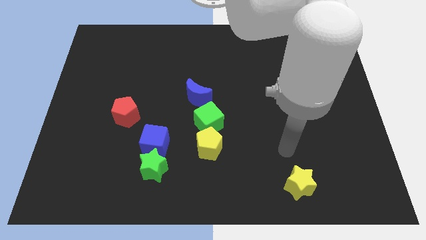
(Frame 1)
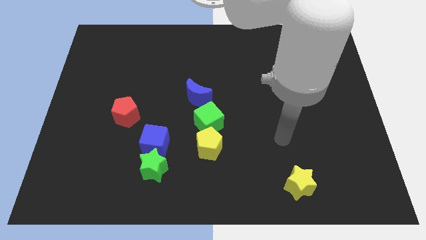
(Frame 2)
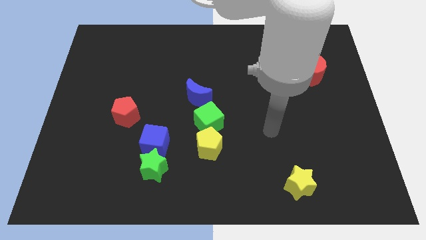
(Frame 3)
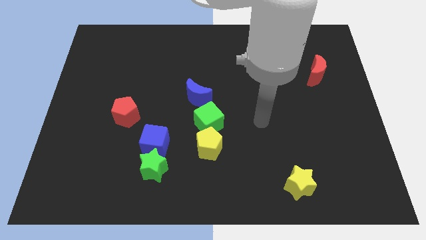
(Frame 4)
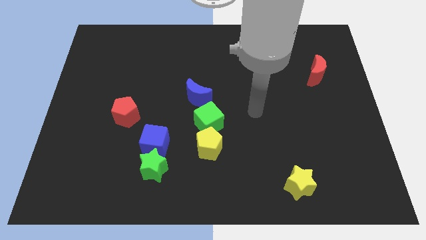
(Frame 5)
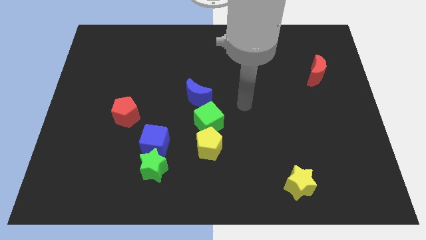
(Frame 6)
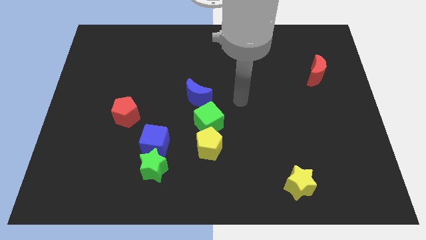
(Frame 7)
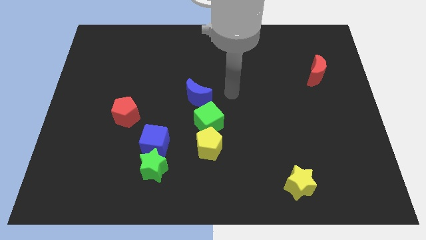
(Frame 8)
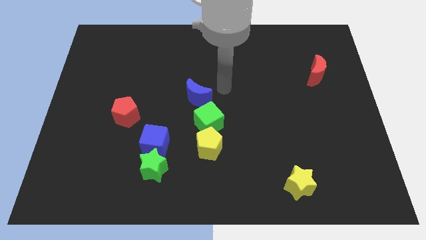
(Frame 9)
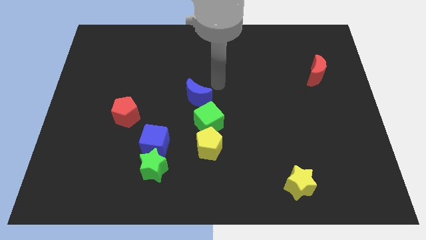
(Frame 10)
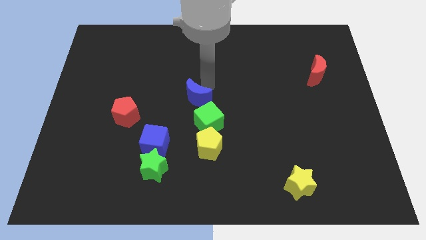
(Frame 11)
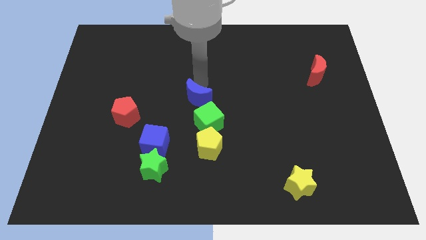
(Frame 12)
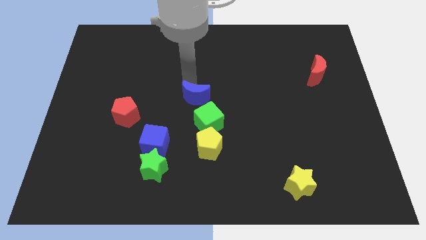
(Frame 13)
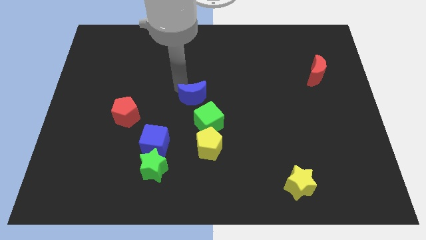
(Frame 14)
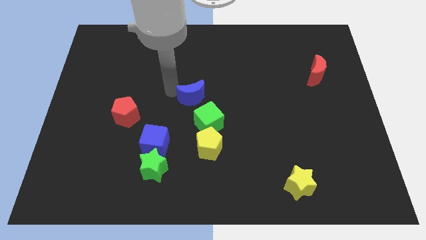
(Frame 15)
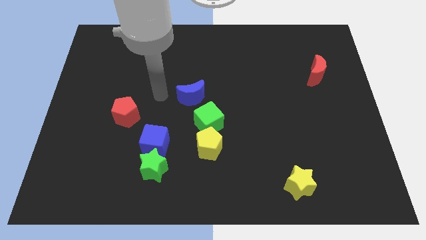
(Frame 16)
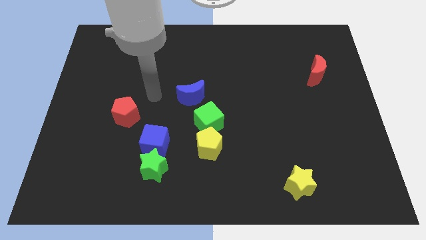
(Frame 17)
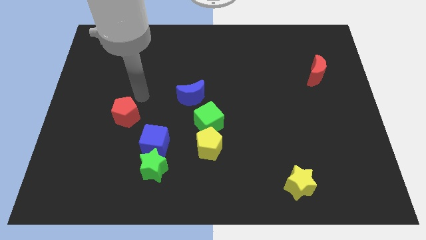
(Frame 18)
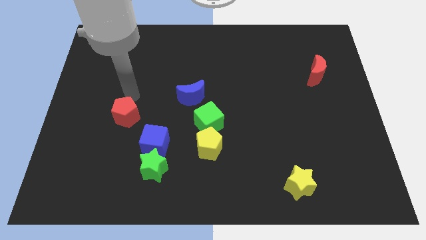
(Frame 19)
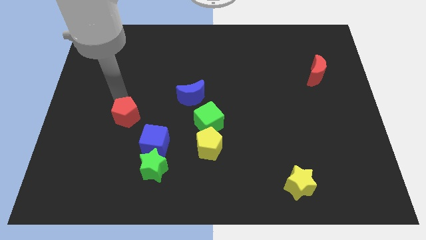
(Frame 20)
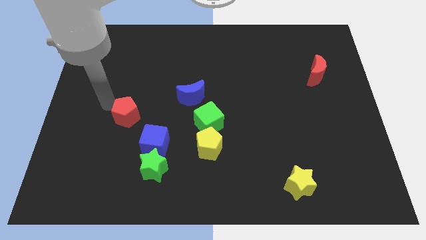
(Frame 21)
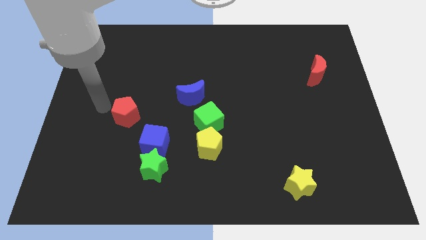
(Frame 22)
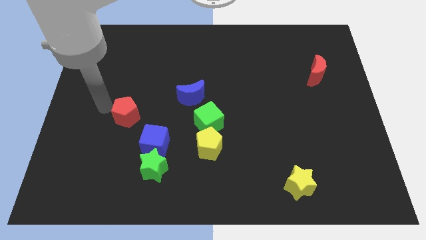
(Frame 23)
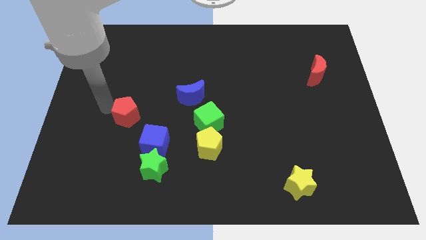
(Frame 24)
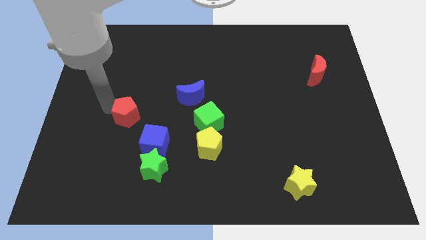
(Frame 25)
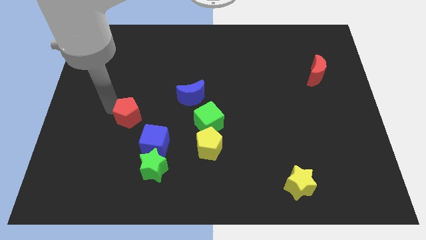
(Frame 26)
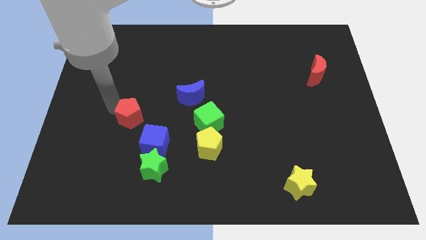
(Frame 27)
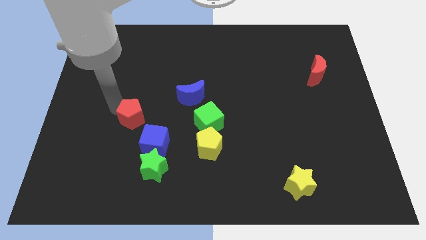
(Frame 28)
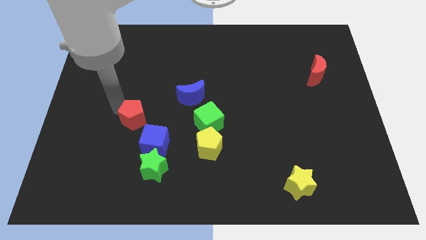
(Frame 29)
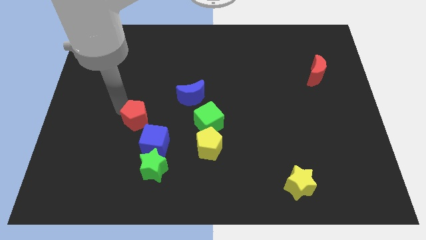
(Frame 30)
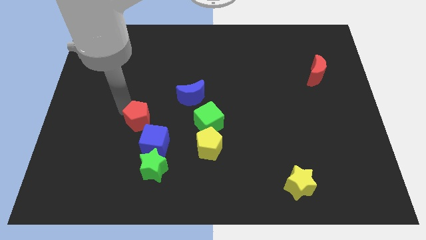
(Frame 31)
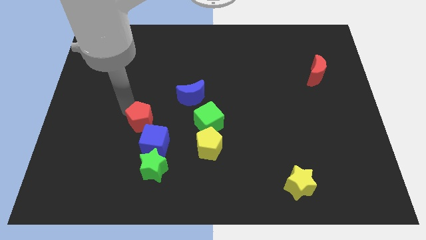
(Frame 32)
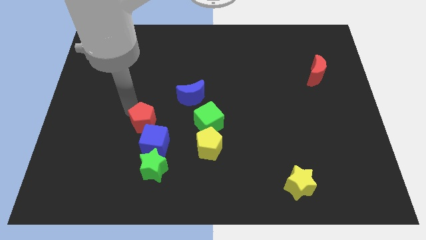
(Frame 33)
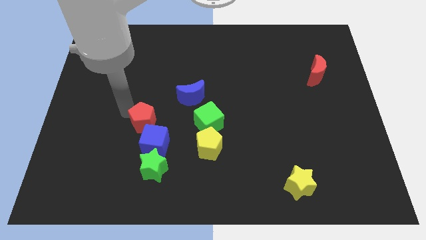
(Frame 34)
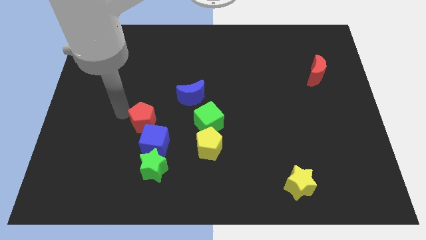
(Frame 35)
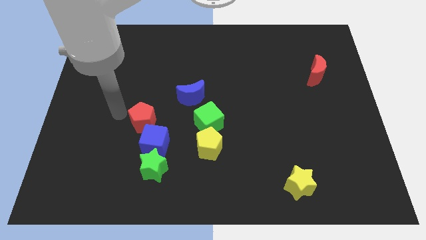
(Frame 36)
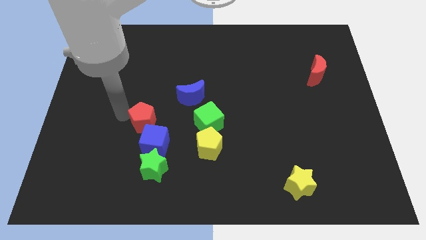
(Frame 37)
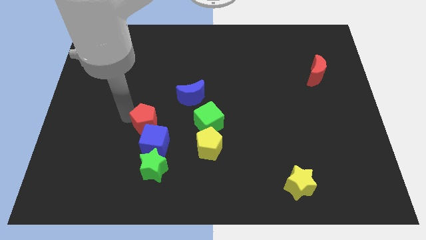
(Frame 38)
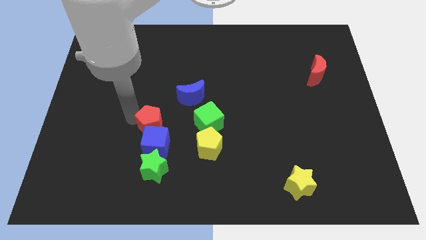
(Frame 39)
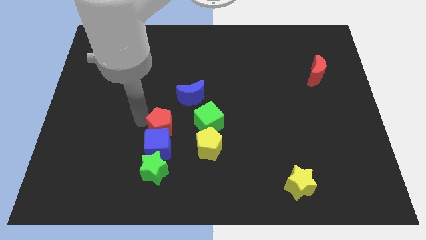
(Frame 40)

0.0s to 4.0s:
slightly slide the red pentagon downwards and to the right diagonally

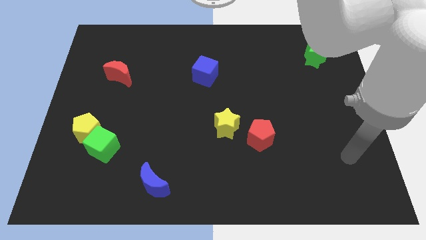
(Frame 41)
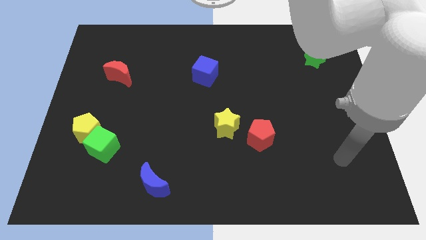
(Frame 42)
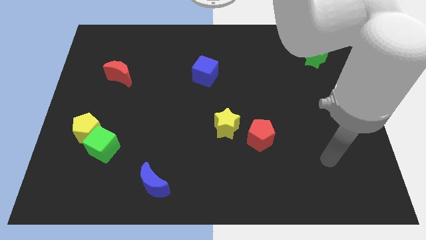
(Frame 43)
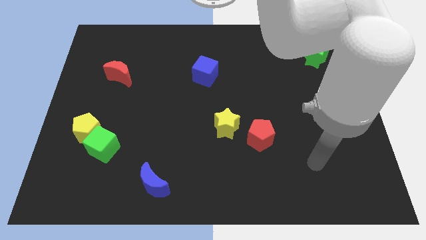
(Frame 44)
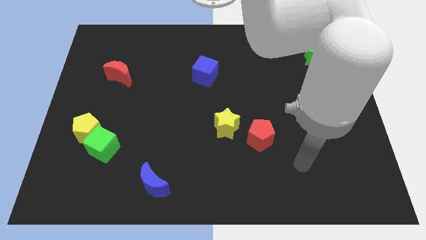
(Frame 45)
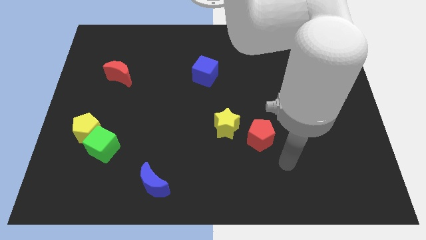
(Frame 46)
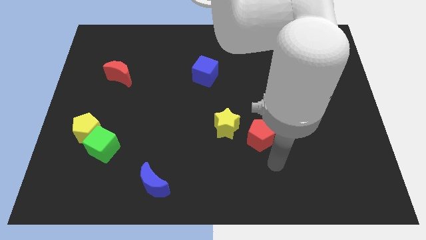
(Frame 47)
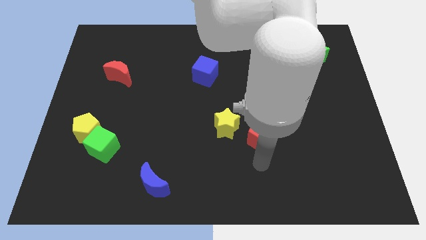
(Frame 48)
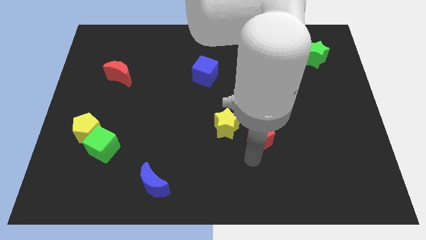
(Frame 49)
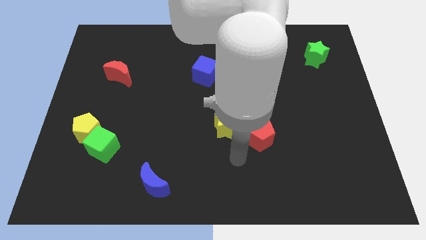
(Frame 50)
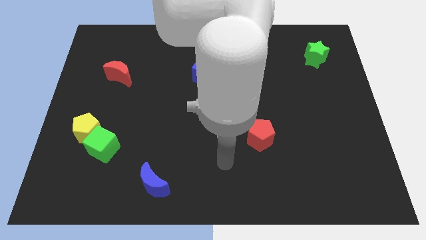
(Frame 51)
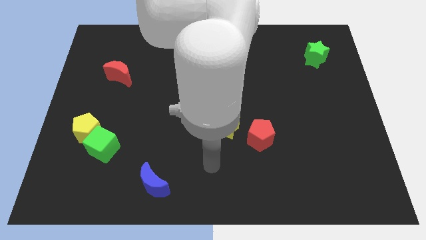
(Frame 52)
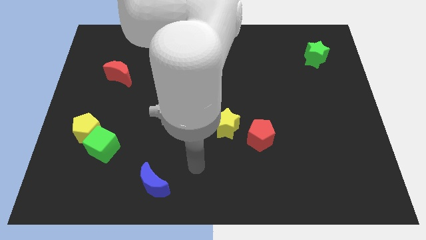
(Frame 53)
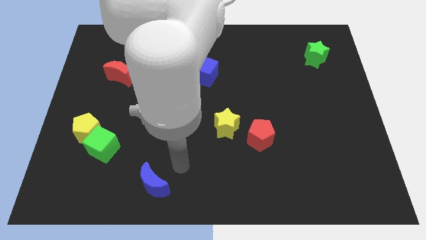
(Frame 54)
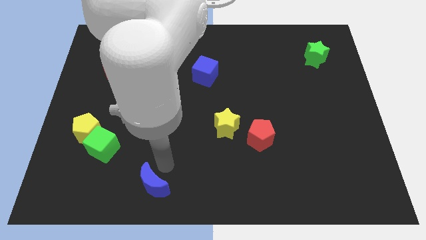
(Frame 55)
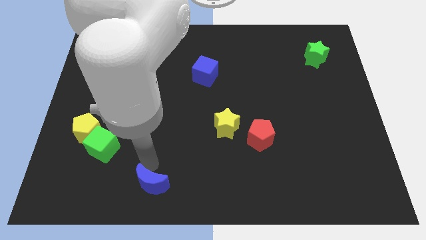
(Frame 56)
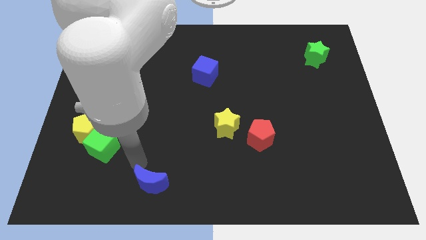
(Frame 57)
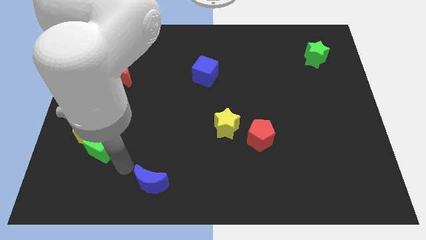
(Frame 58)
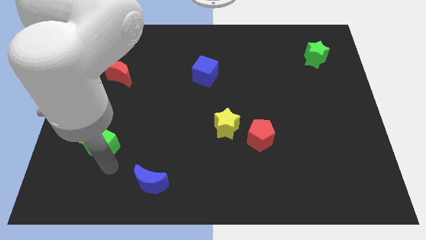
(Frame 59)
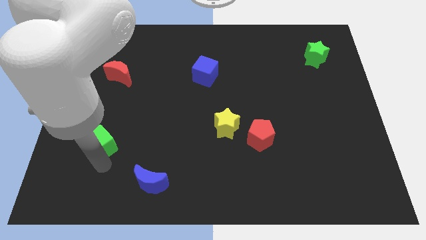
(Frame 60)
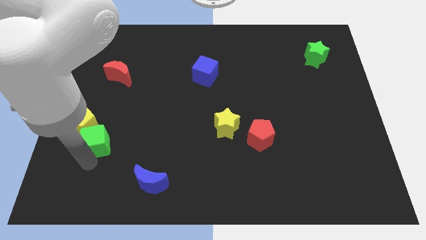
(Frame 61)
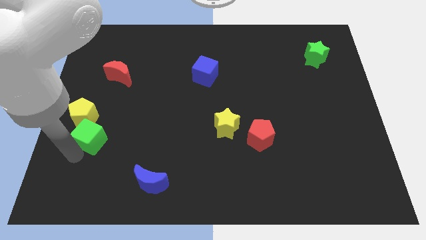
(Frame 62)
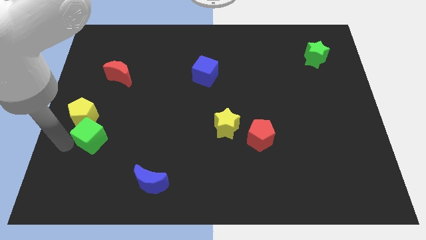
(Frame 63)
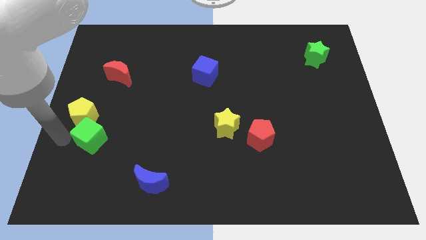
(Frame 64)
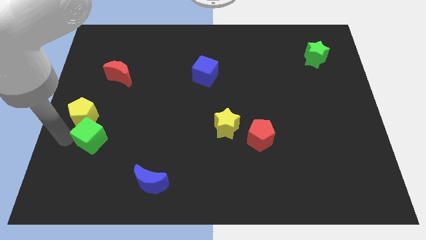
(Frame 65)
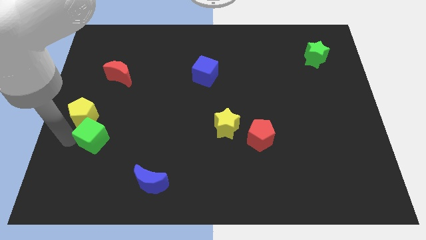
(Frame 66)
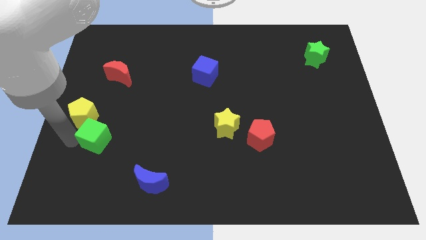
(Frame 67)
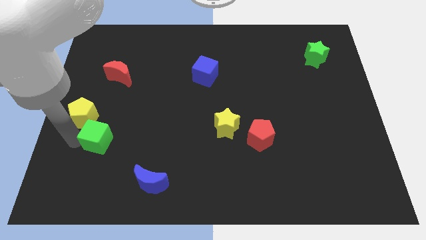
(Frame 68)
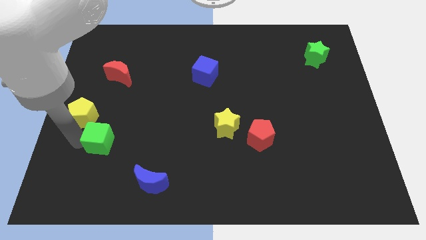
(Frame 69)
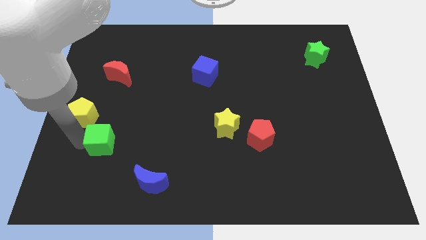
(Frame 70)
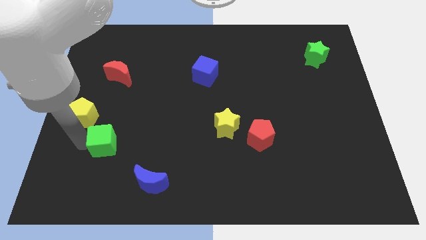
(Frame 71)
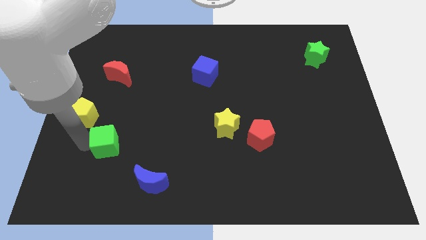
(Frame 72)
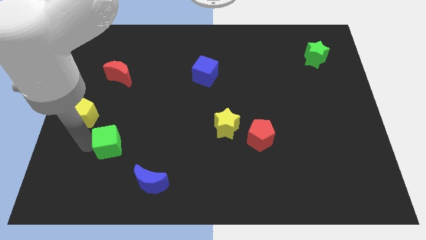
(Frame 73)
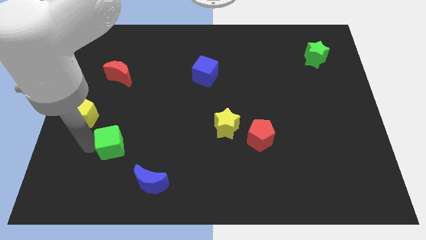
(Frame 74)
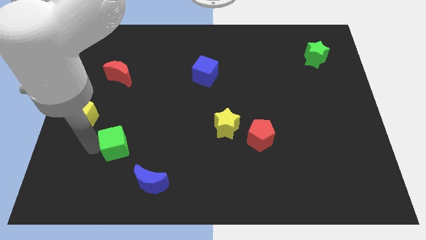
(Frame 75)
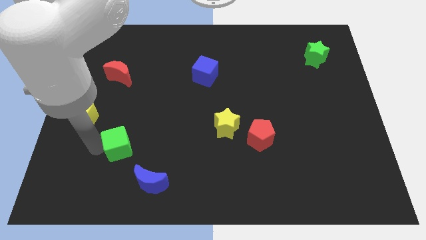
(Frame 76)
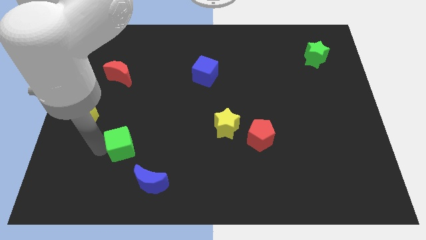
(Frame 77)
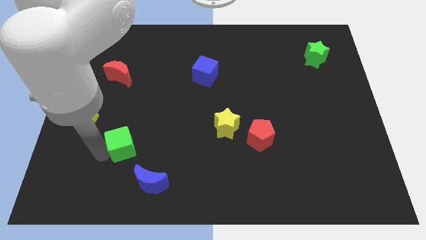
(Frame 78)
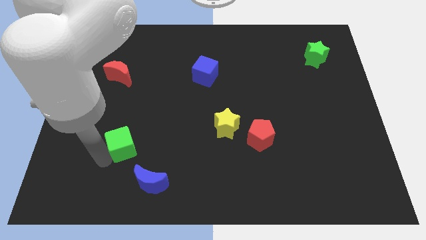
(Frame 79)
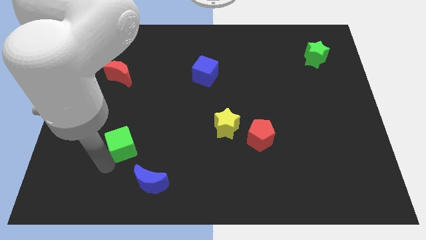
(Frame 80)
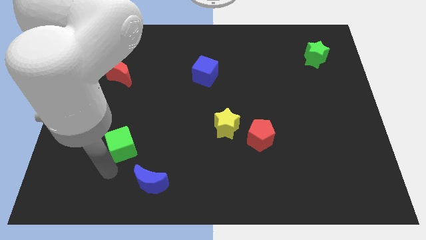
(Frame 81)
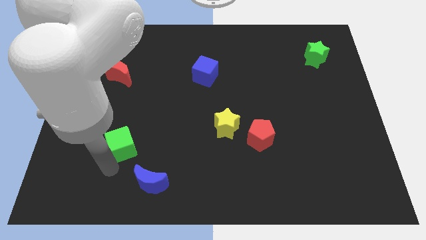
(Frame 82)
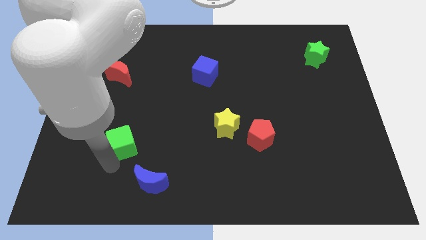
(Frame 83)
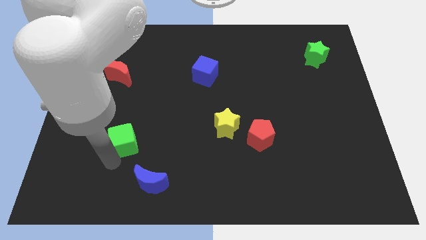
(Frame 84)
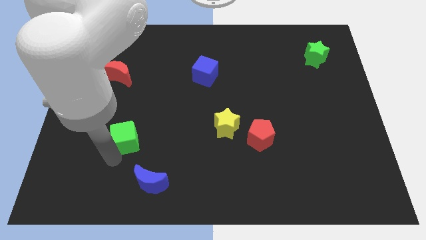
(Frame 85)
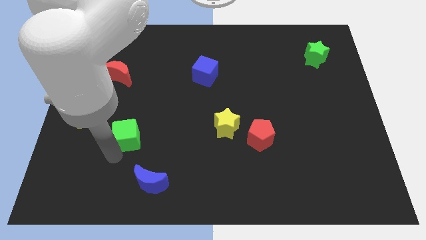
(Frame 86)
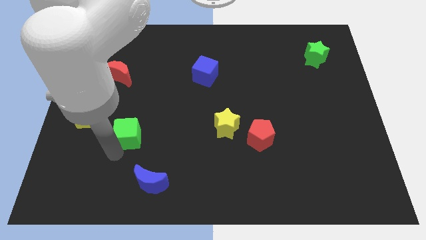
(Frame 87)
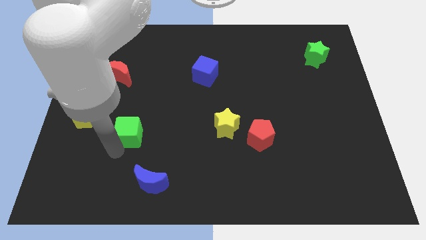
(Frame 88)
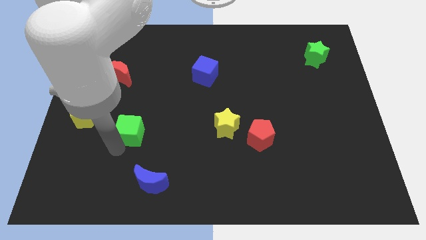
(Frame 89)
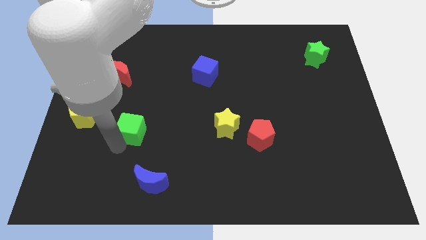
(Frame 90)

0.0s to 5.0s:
push the green cube somewhat upwards and to the right diagonally
